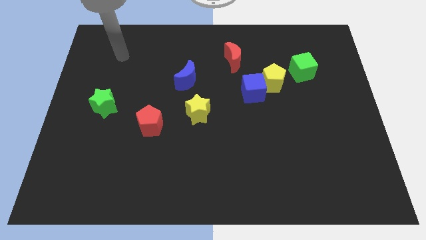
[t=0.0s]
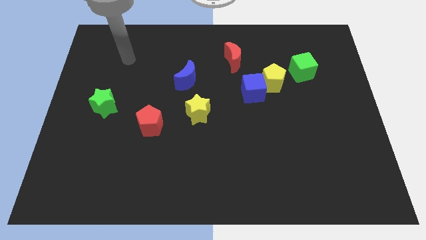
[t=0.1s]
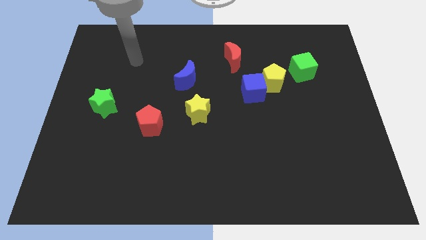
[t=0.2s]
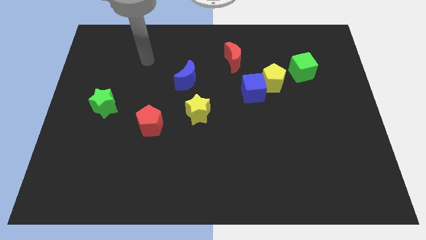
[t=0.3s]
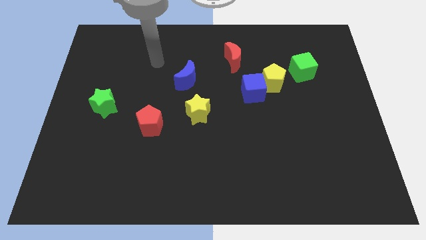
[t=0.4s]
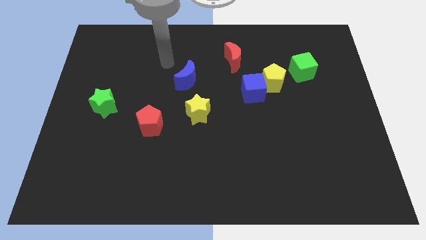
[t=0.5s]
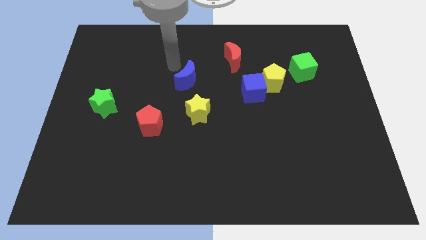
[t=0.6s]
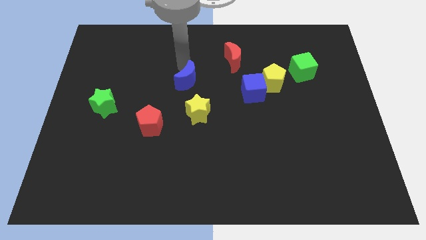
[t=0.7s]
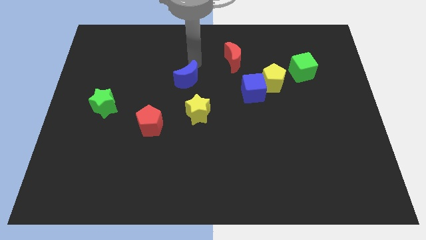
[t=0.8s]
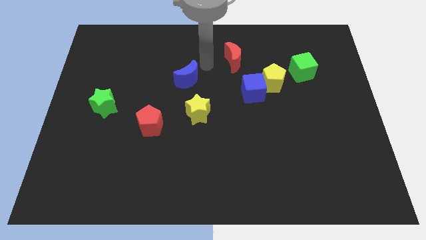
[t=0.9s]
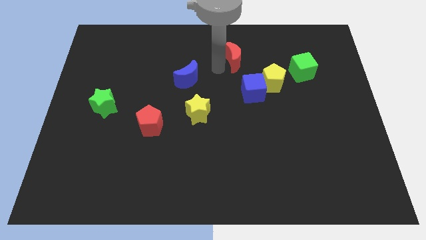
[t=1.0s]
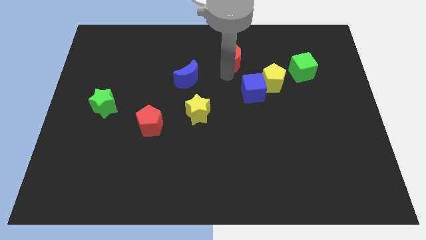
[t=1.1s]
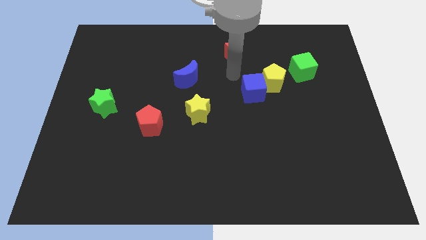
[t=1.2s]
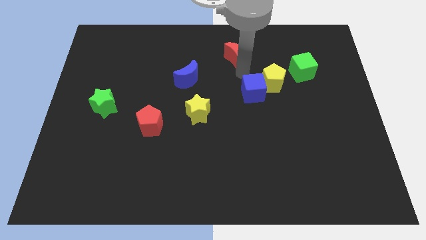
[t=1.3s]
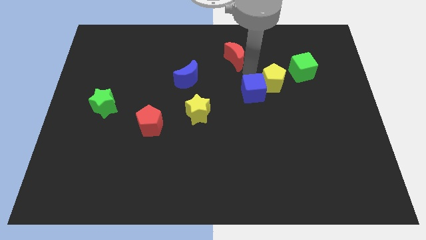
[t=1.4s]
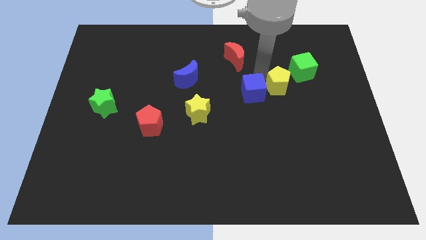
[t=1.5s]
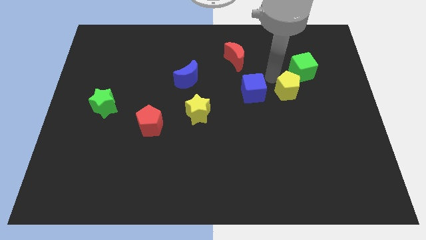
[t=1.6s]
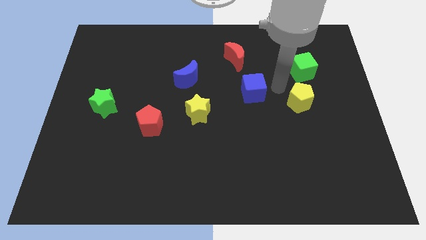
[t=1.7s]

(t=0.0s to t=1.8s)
separate the blue cube from the yellow pentagon

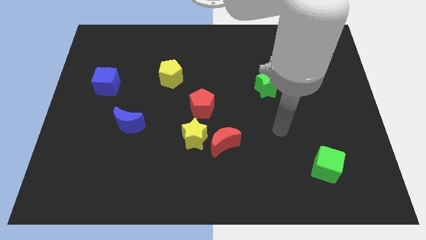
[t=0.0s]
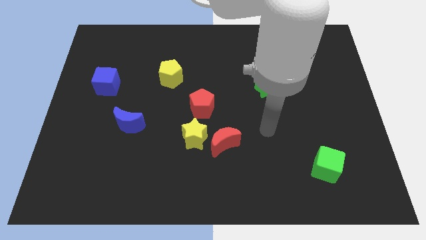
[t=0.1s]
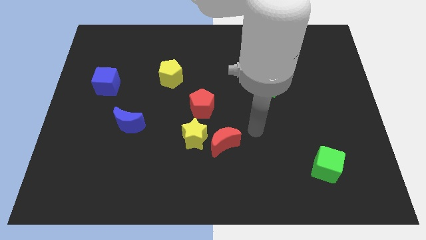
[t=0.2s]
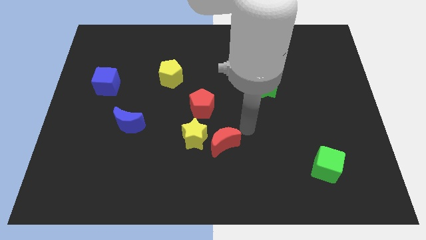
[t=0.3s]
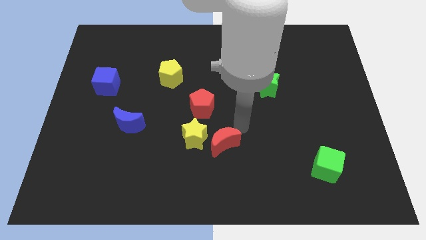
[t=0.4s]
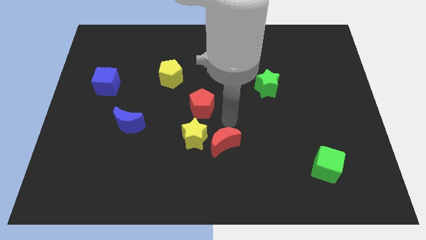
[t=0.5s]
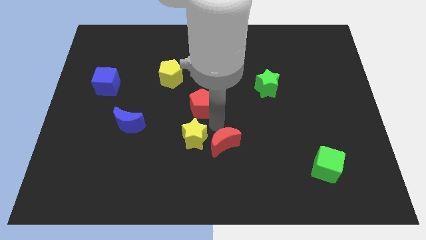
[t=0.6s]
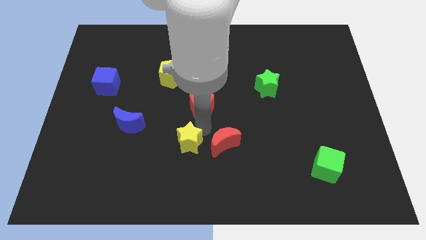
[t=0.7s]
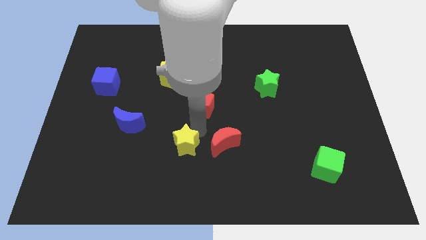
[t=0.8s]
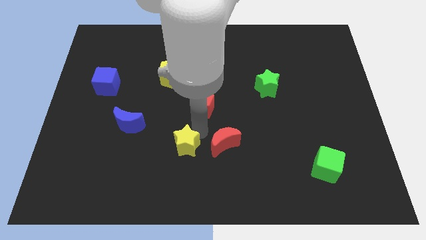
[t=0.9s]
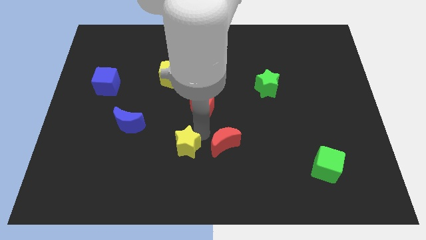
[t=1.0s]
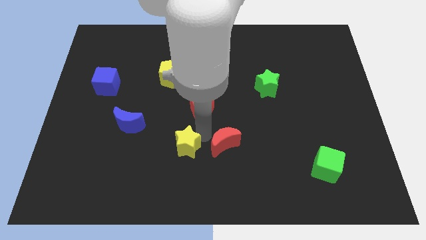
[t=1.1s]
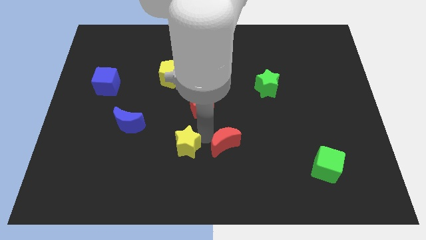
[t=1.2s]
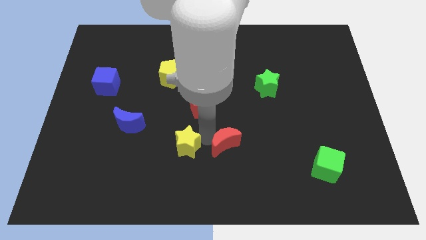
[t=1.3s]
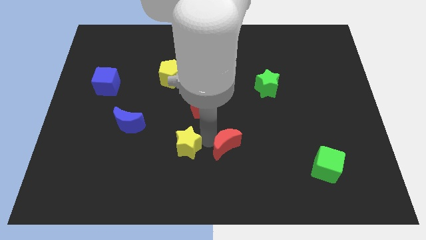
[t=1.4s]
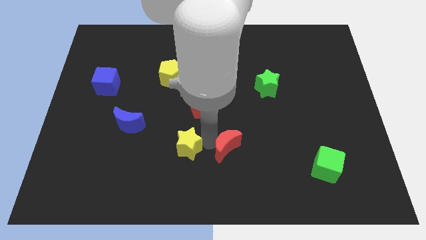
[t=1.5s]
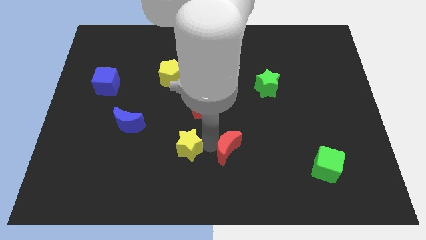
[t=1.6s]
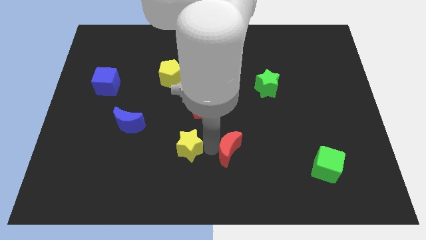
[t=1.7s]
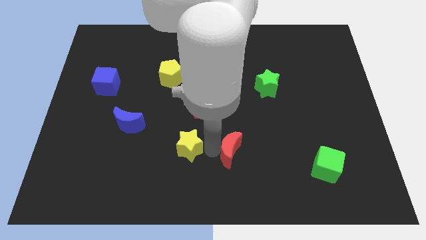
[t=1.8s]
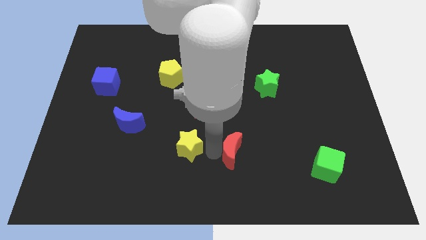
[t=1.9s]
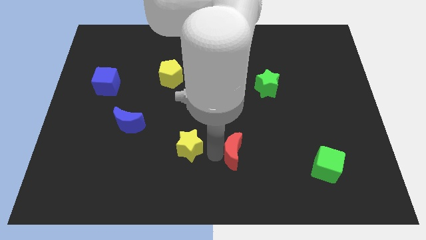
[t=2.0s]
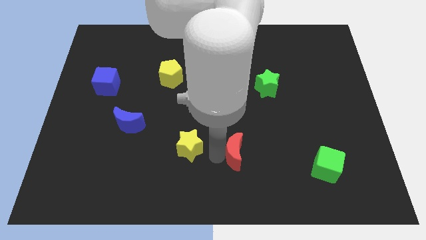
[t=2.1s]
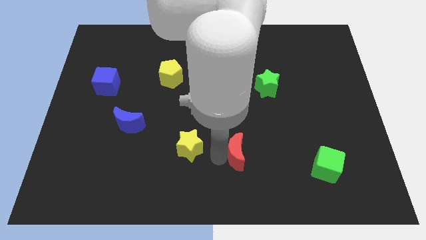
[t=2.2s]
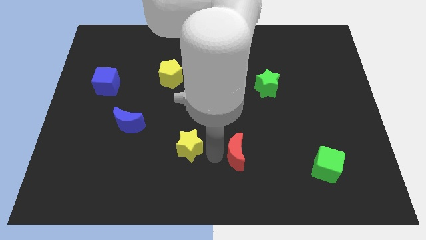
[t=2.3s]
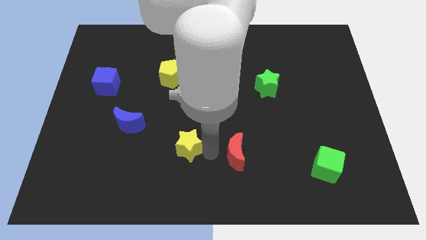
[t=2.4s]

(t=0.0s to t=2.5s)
move the red moon away from the yellow star

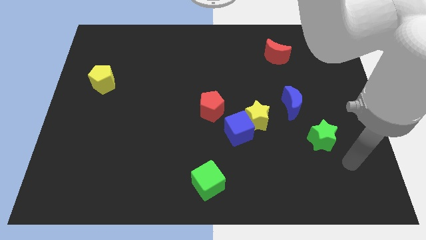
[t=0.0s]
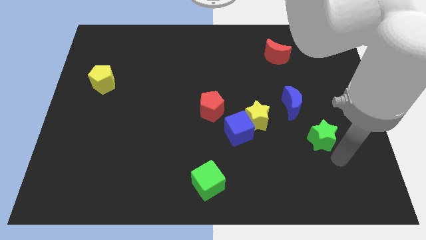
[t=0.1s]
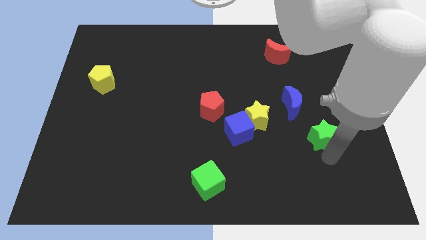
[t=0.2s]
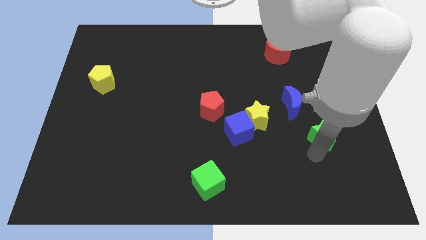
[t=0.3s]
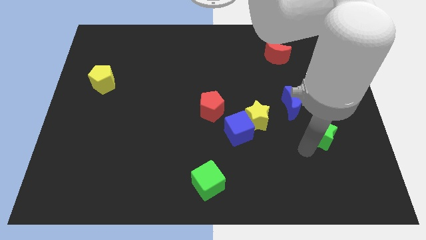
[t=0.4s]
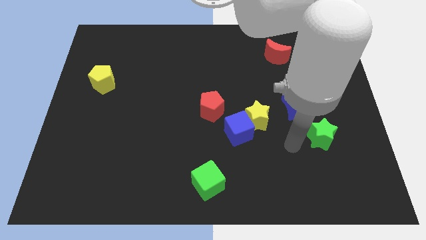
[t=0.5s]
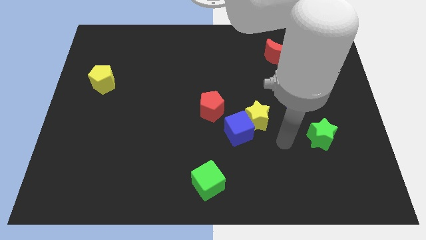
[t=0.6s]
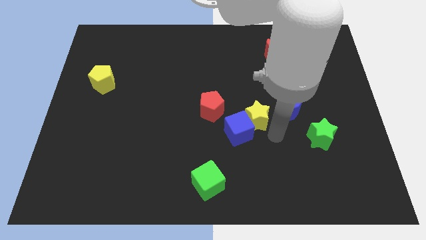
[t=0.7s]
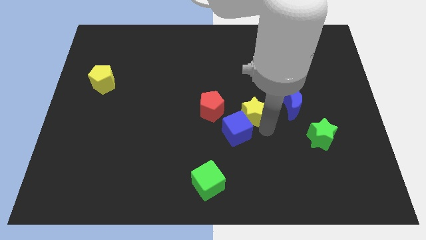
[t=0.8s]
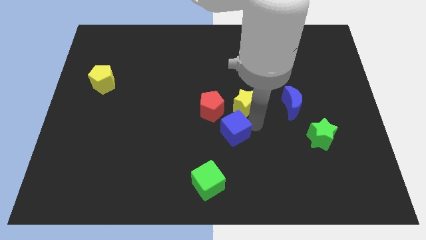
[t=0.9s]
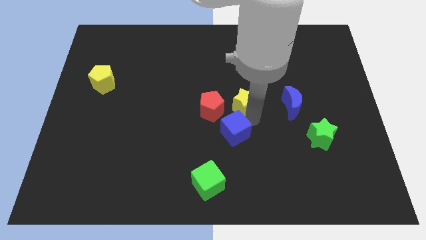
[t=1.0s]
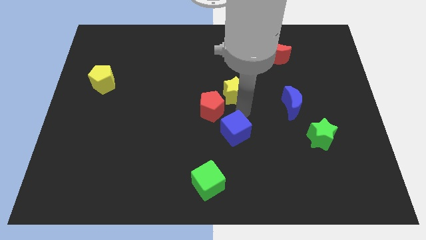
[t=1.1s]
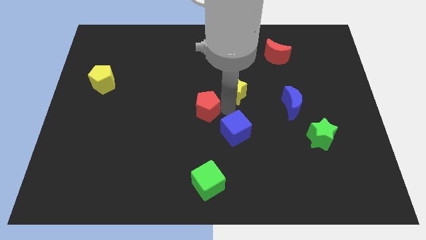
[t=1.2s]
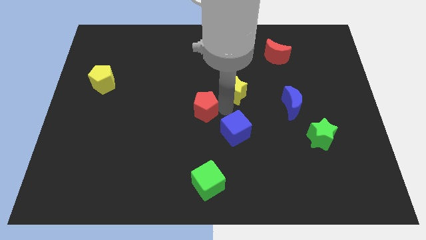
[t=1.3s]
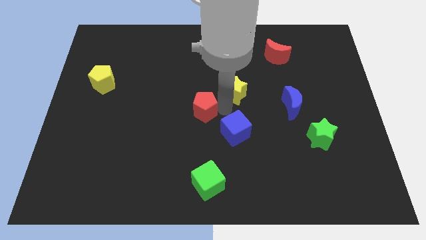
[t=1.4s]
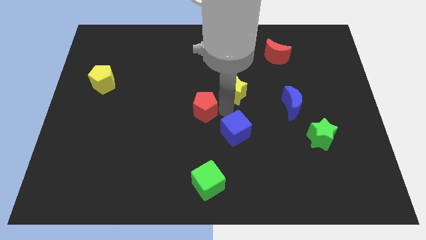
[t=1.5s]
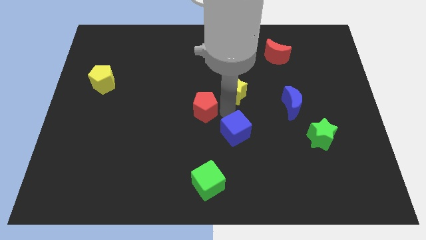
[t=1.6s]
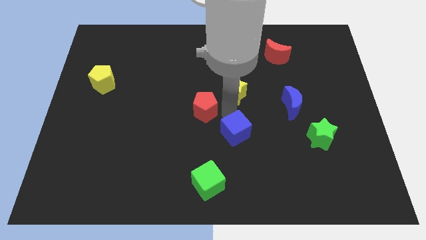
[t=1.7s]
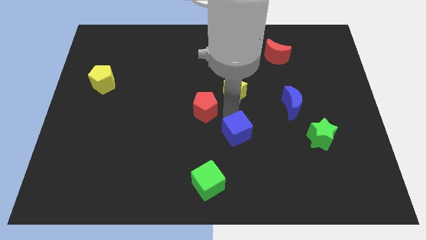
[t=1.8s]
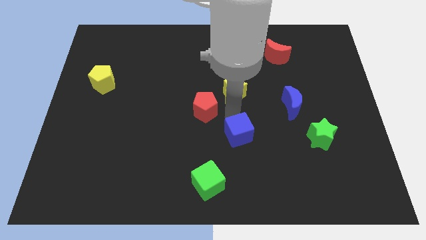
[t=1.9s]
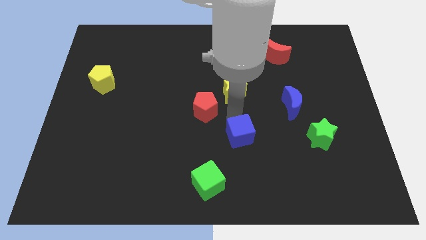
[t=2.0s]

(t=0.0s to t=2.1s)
separate the blue cube from the yellow star and red pentagon

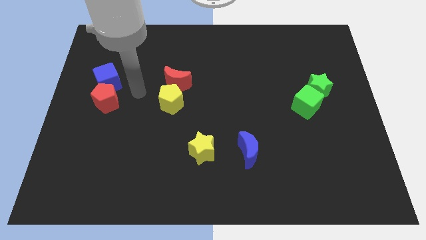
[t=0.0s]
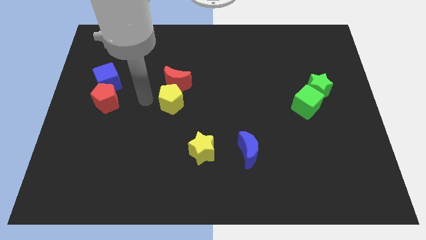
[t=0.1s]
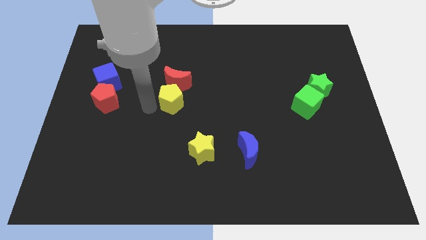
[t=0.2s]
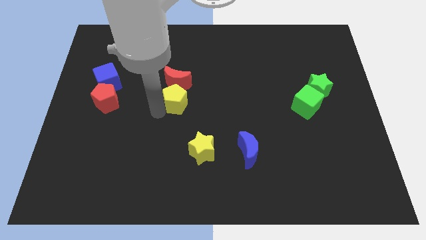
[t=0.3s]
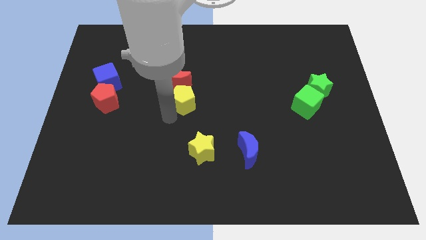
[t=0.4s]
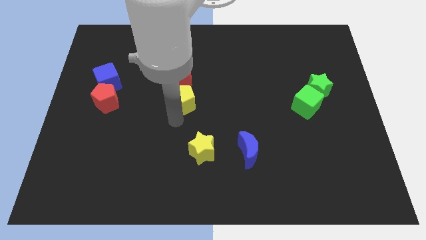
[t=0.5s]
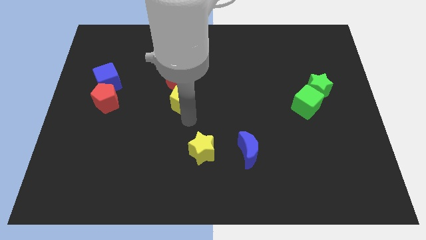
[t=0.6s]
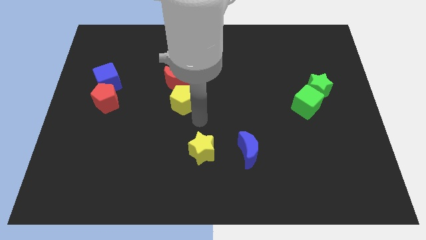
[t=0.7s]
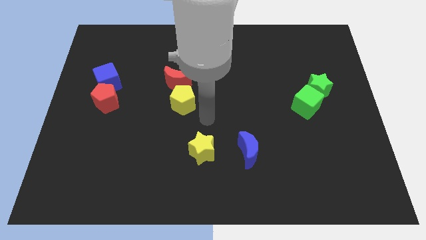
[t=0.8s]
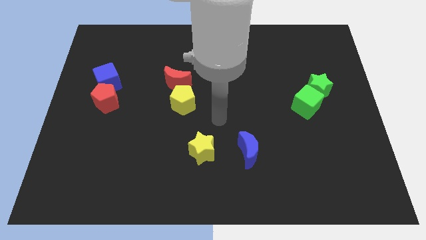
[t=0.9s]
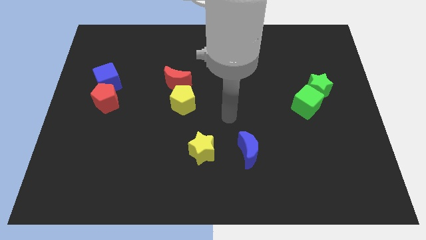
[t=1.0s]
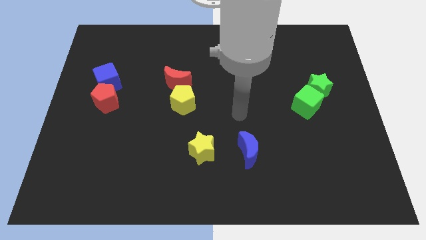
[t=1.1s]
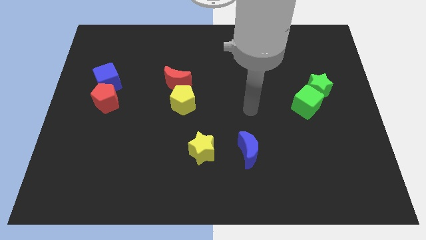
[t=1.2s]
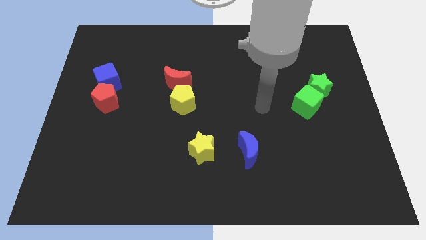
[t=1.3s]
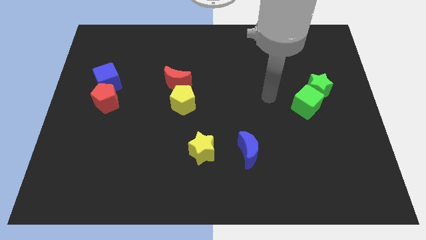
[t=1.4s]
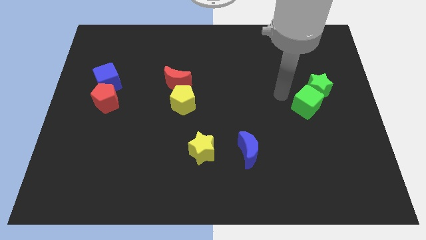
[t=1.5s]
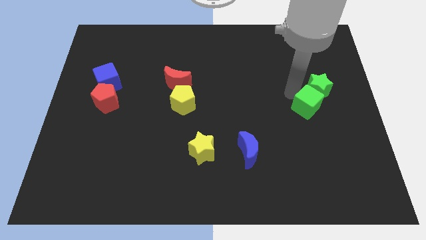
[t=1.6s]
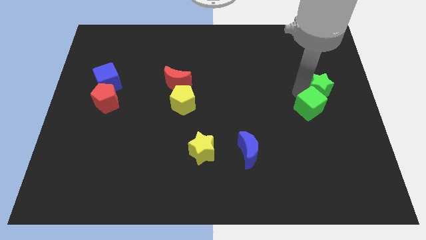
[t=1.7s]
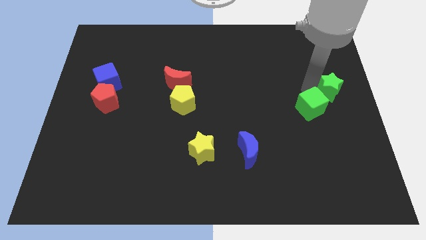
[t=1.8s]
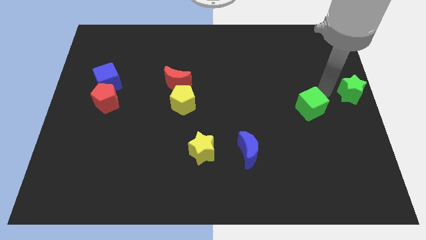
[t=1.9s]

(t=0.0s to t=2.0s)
pull the green cube apart from the green star

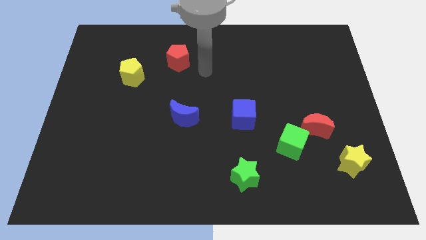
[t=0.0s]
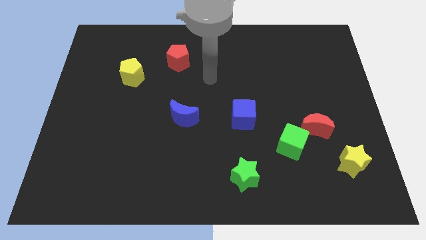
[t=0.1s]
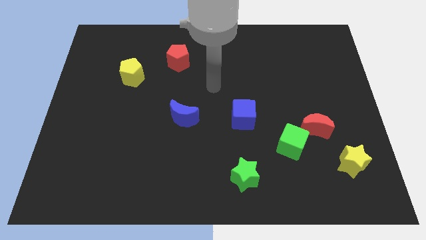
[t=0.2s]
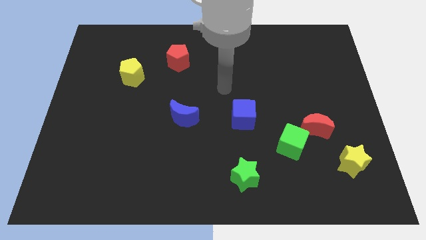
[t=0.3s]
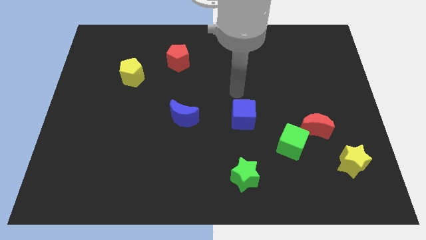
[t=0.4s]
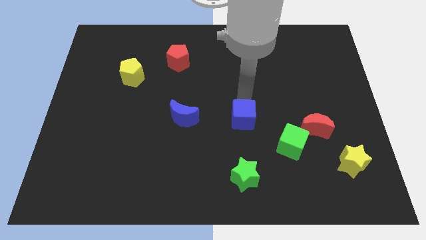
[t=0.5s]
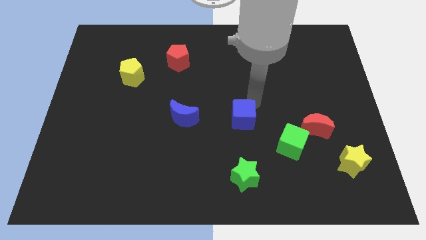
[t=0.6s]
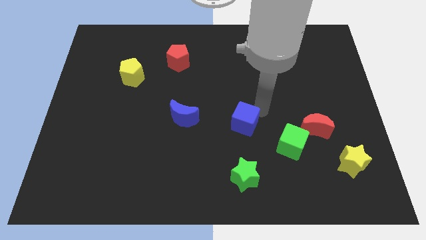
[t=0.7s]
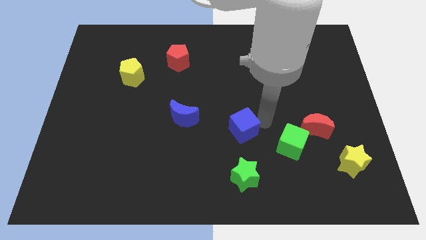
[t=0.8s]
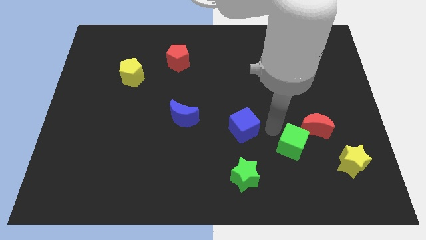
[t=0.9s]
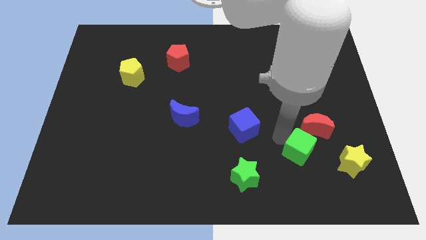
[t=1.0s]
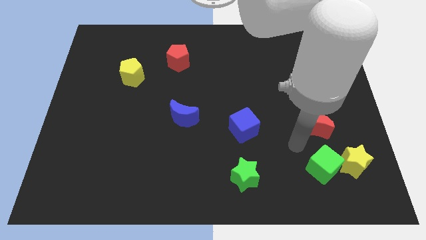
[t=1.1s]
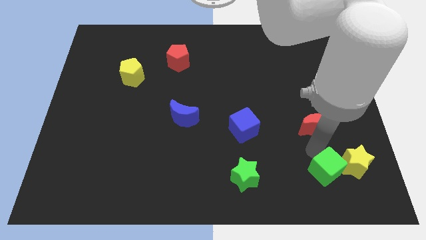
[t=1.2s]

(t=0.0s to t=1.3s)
move the red moon away from the green cube
